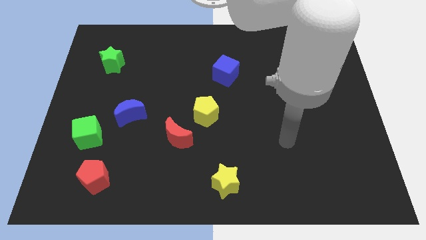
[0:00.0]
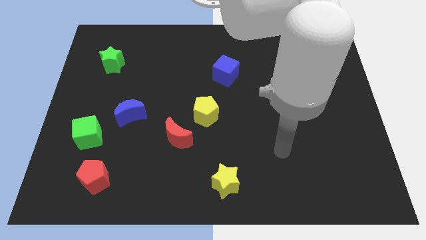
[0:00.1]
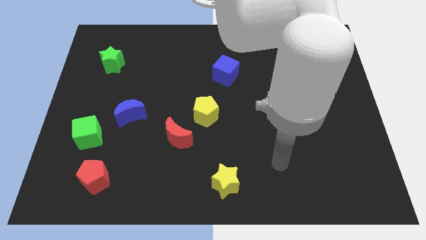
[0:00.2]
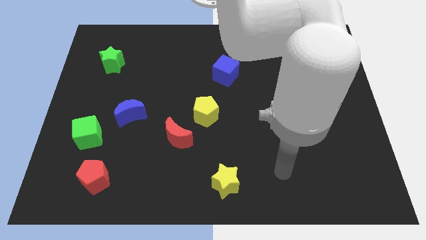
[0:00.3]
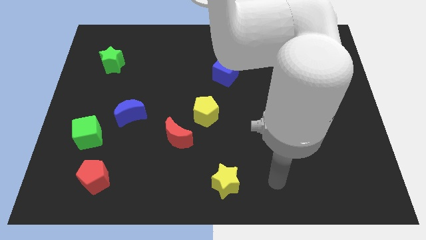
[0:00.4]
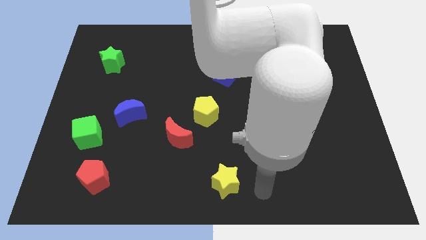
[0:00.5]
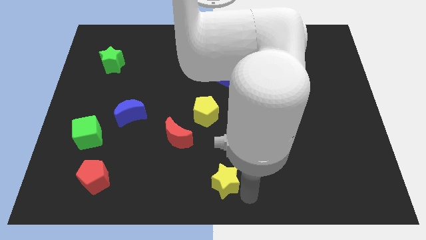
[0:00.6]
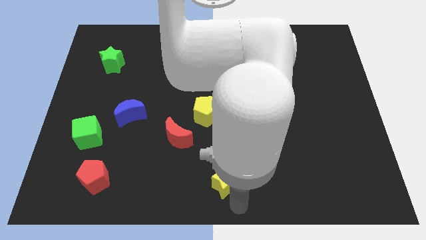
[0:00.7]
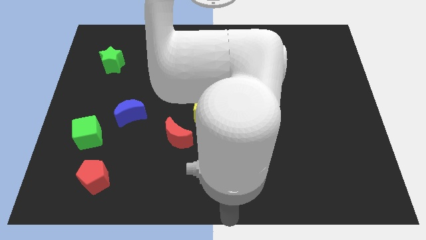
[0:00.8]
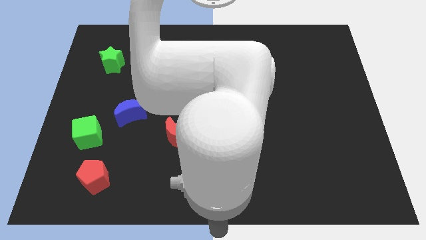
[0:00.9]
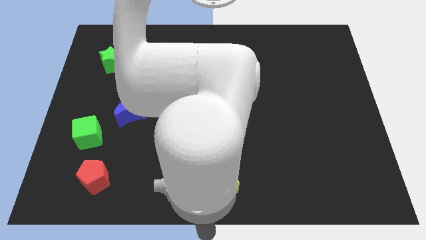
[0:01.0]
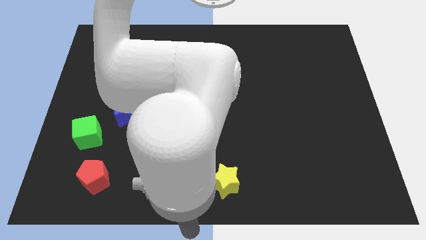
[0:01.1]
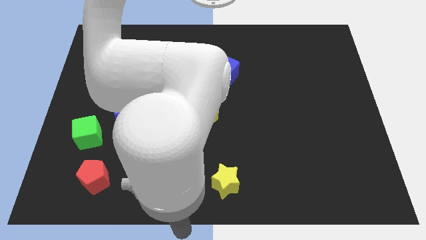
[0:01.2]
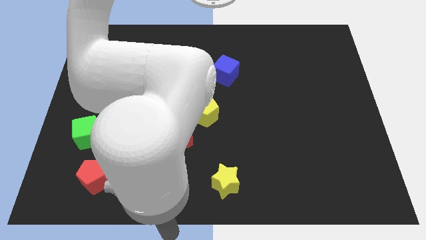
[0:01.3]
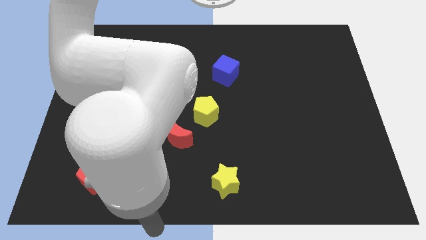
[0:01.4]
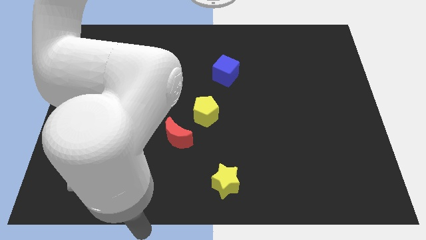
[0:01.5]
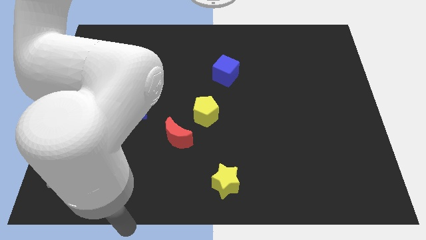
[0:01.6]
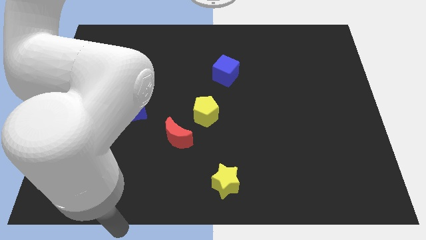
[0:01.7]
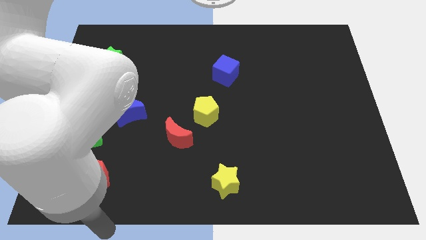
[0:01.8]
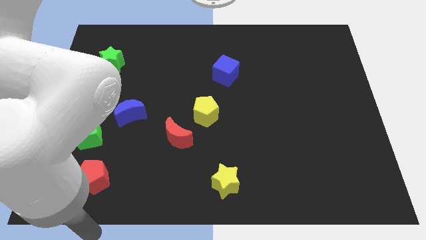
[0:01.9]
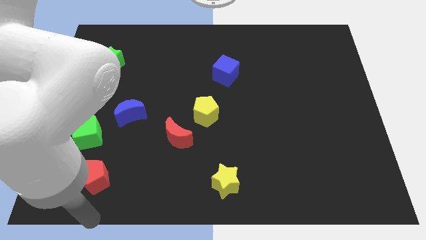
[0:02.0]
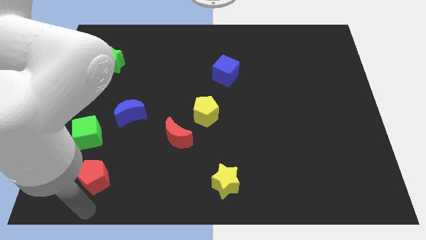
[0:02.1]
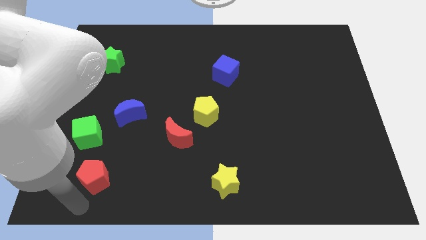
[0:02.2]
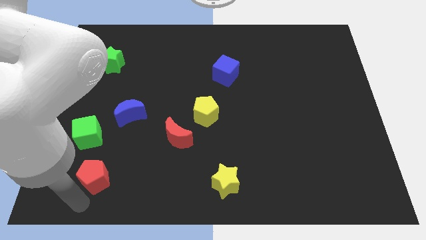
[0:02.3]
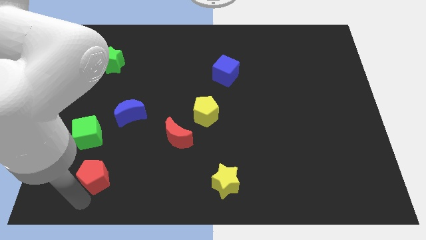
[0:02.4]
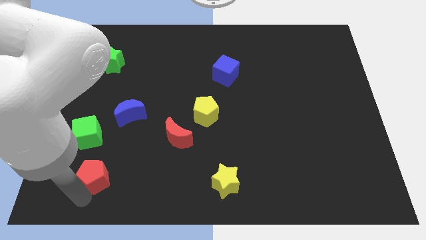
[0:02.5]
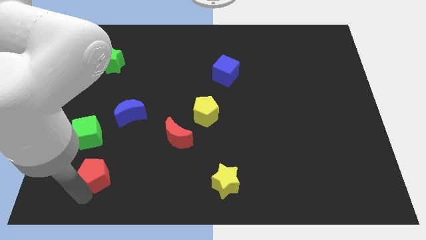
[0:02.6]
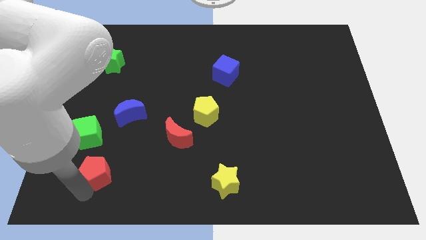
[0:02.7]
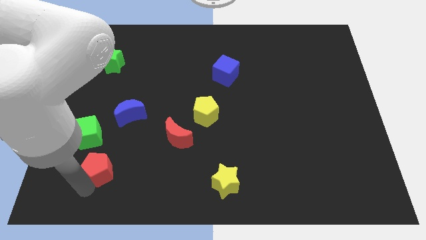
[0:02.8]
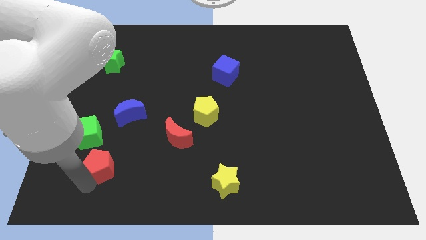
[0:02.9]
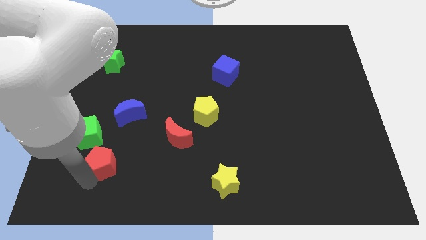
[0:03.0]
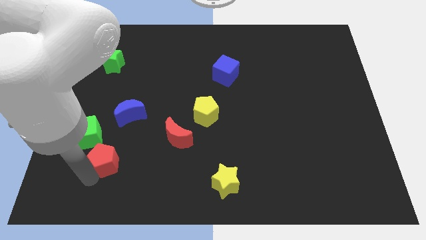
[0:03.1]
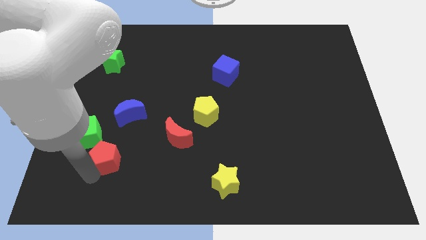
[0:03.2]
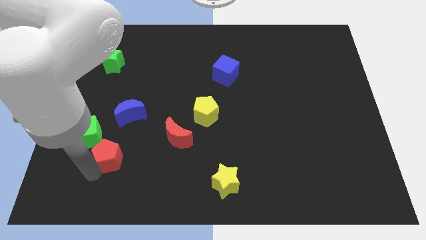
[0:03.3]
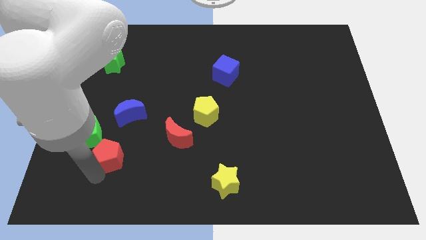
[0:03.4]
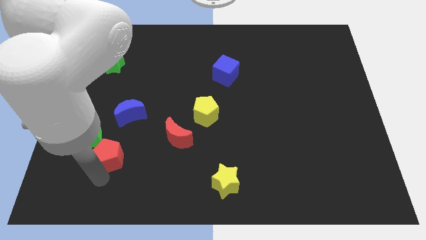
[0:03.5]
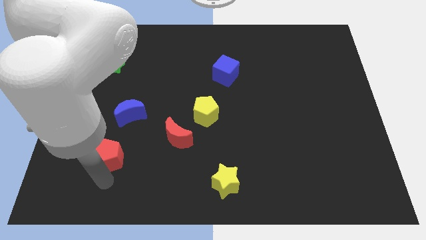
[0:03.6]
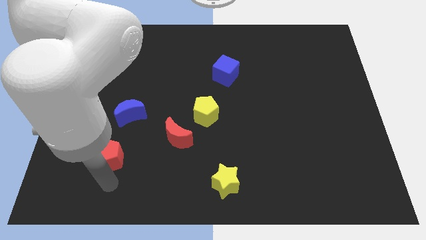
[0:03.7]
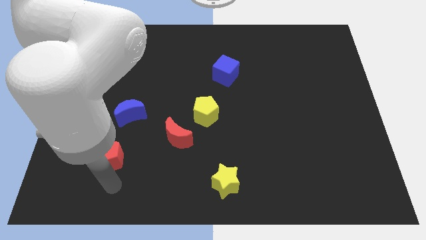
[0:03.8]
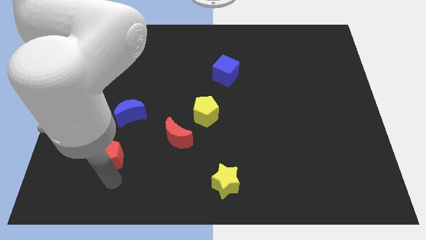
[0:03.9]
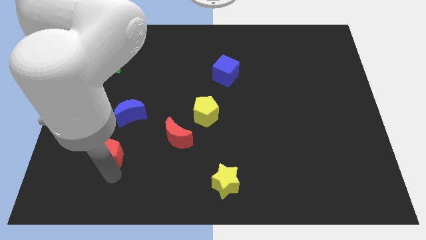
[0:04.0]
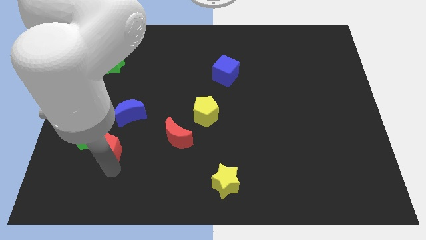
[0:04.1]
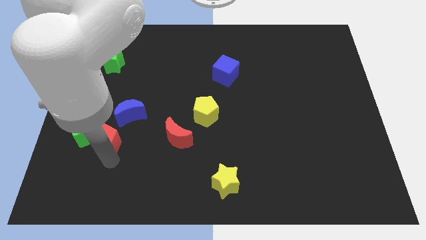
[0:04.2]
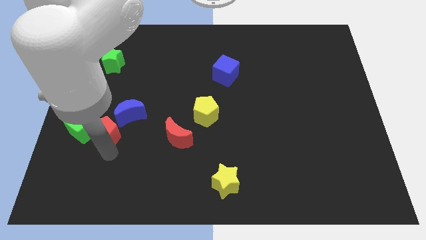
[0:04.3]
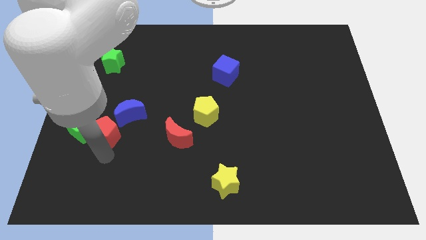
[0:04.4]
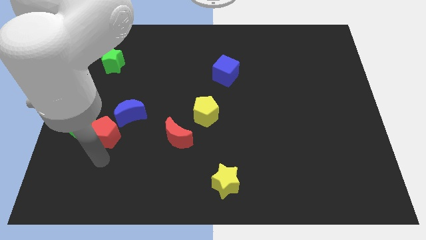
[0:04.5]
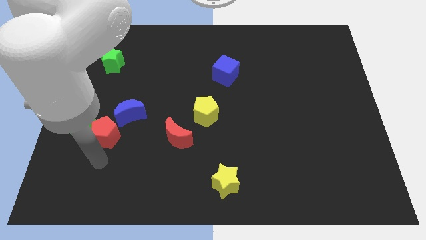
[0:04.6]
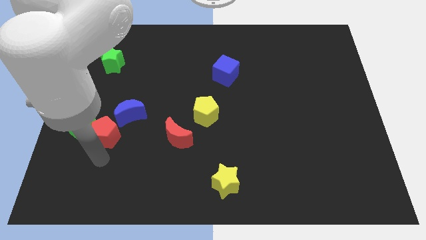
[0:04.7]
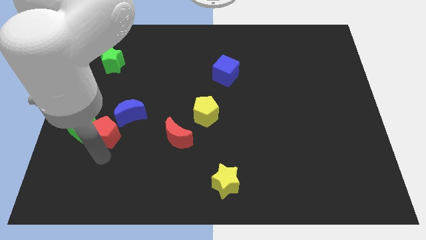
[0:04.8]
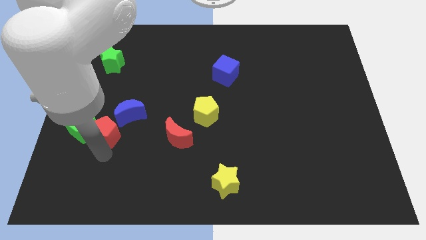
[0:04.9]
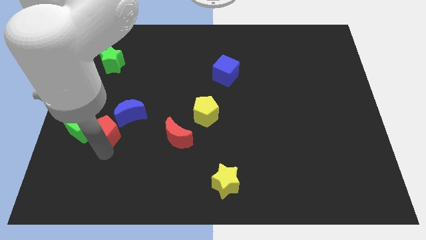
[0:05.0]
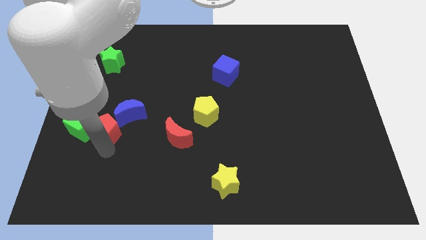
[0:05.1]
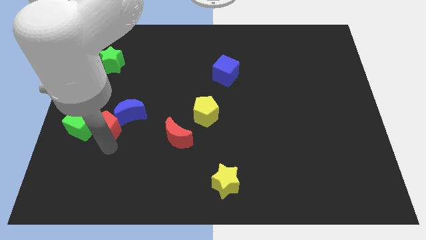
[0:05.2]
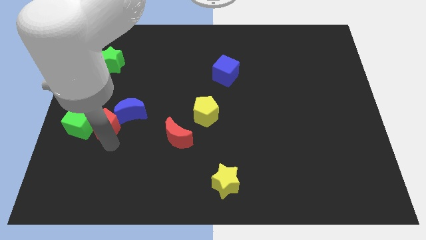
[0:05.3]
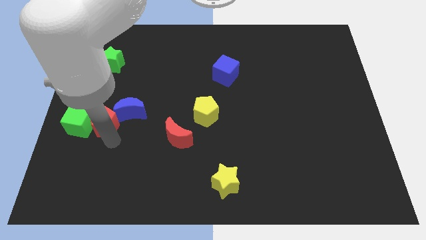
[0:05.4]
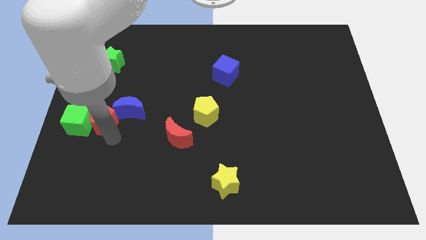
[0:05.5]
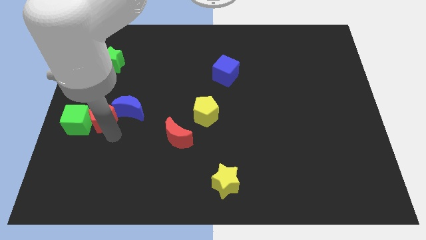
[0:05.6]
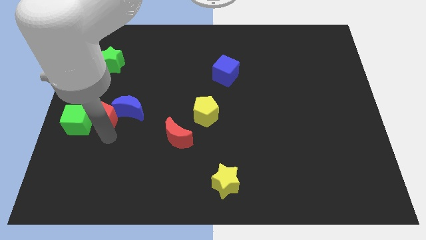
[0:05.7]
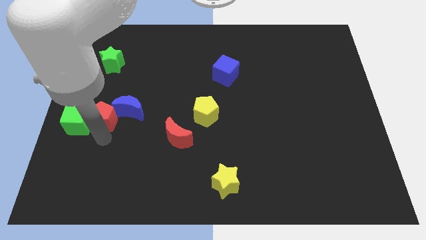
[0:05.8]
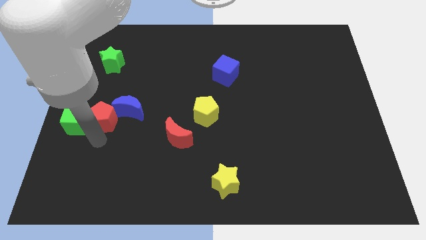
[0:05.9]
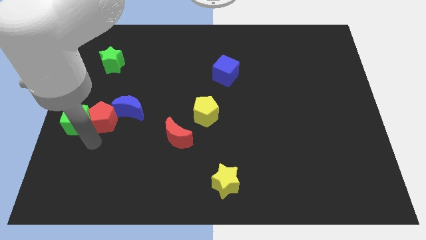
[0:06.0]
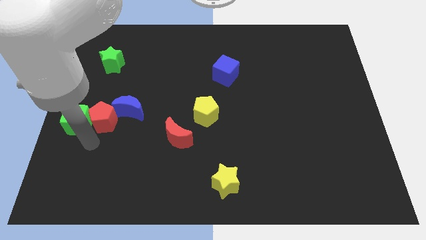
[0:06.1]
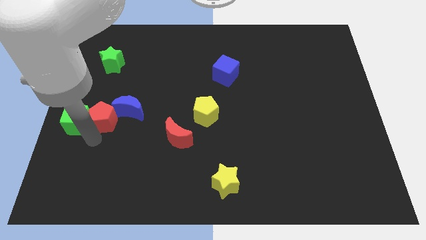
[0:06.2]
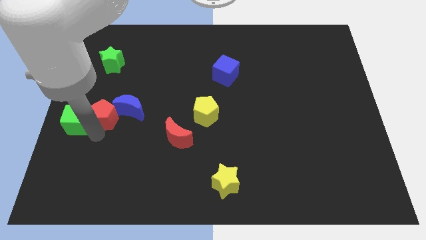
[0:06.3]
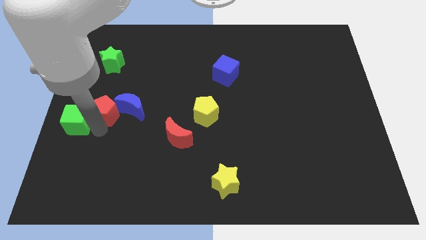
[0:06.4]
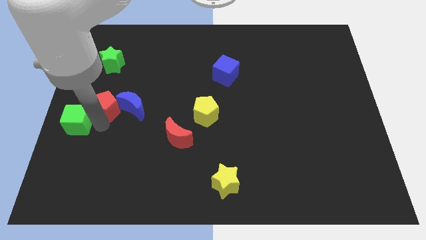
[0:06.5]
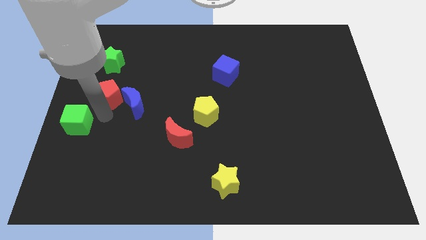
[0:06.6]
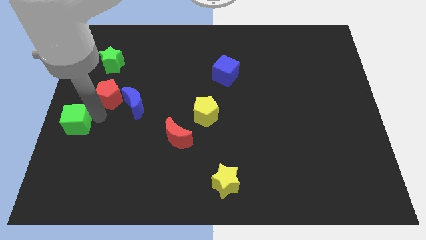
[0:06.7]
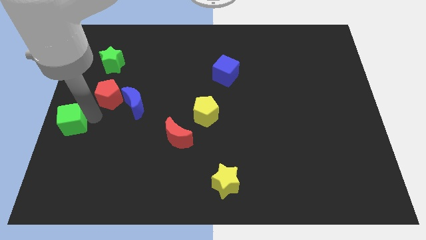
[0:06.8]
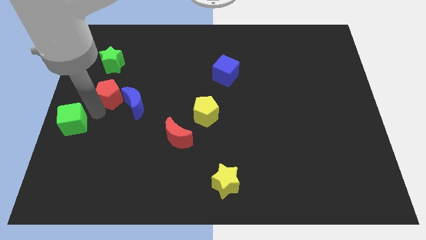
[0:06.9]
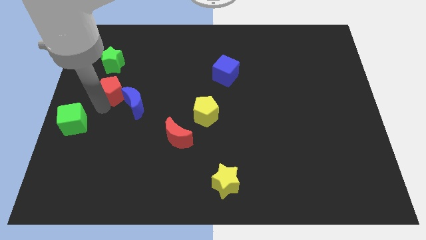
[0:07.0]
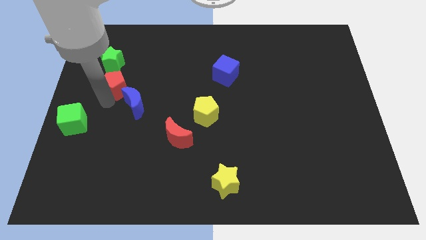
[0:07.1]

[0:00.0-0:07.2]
slide the red pentagon to the bottom right side of the green star
